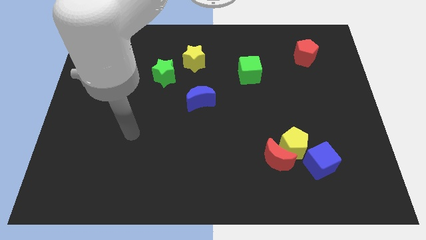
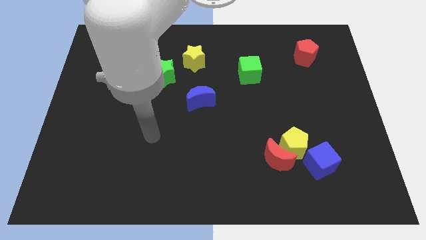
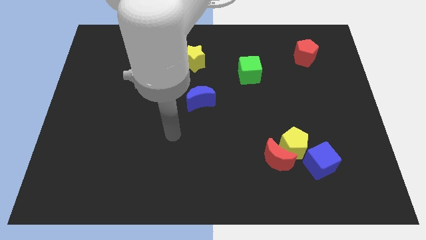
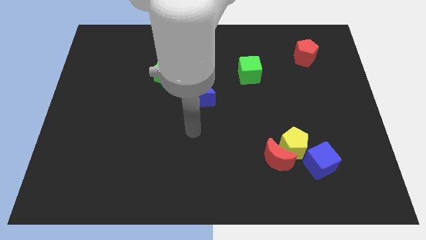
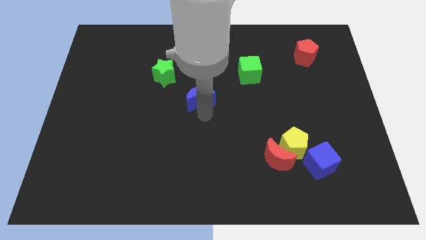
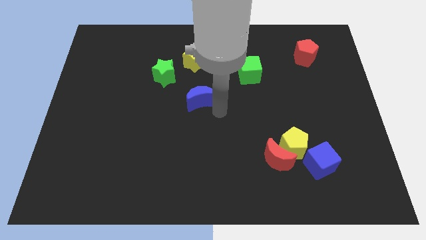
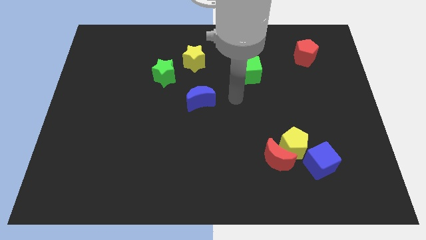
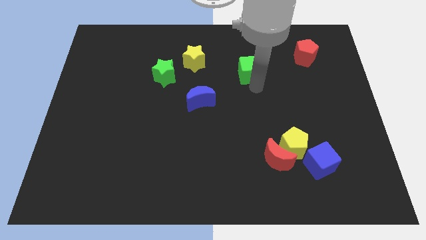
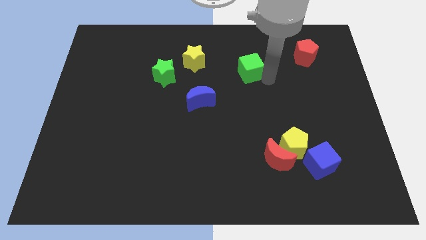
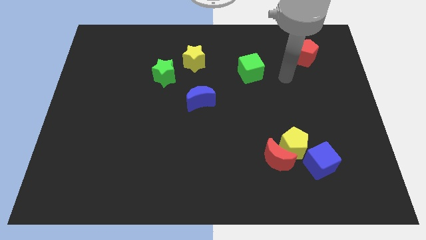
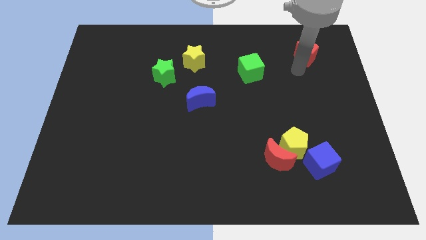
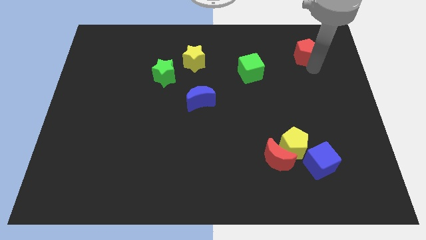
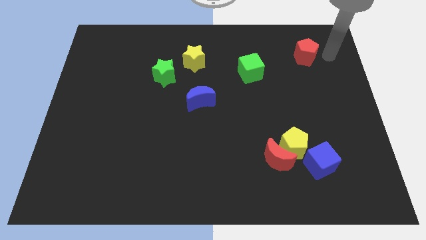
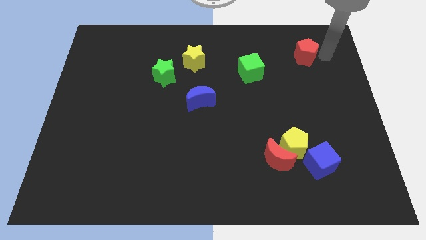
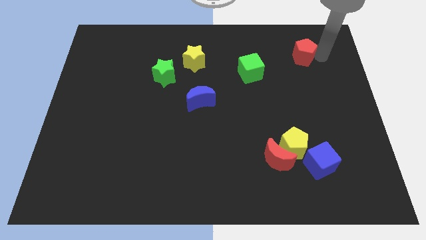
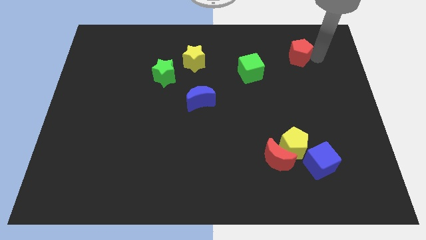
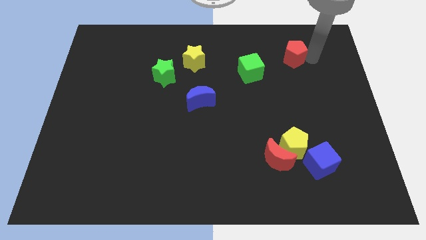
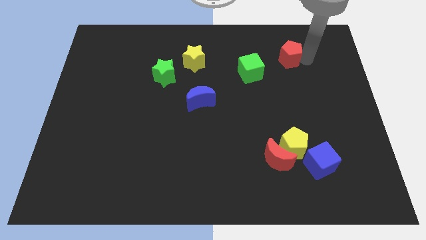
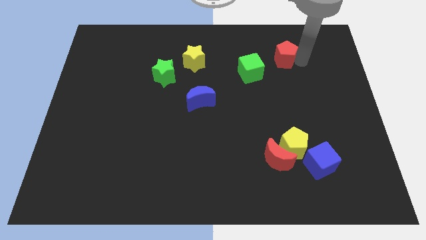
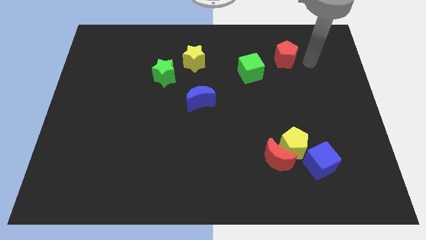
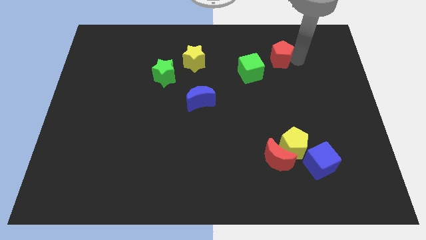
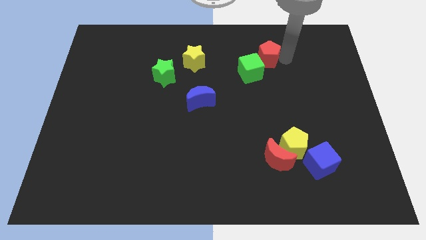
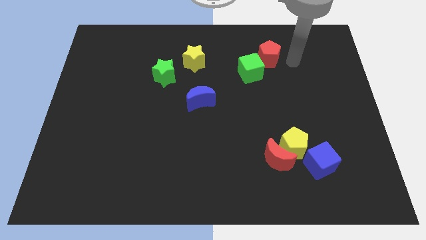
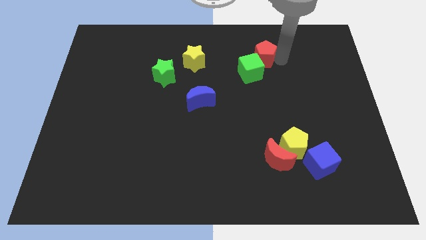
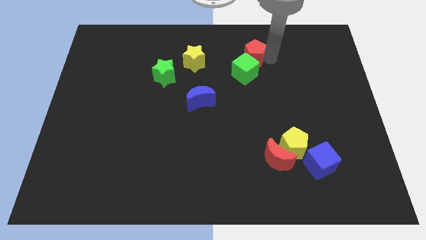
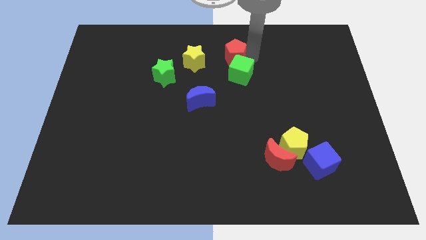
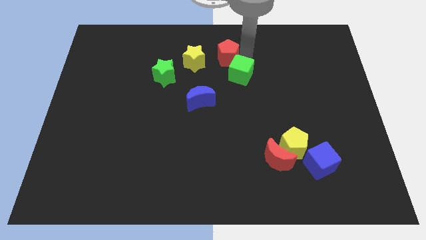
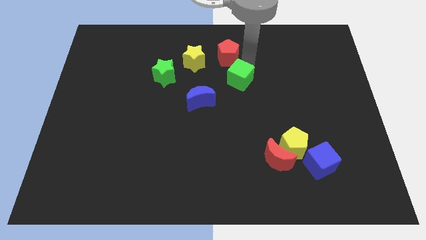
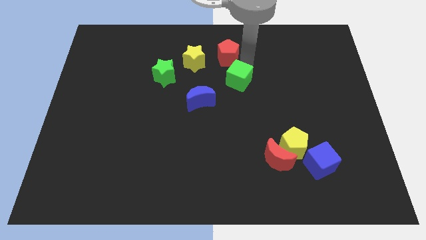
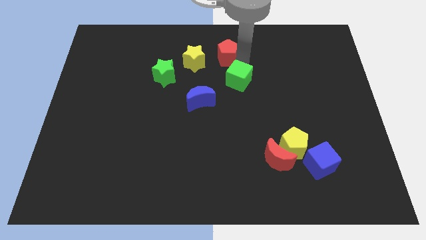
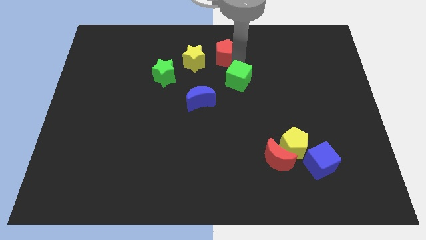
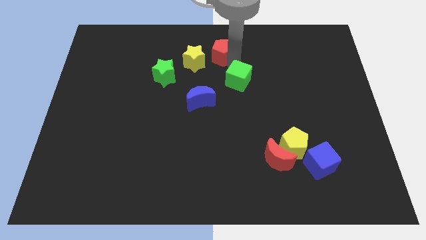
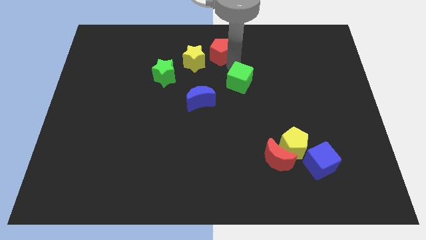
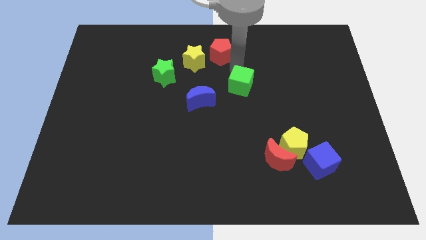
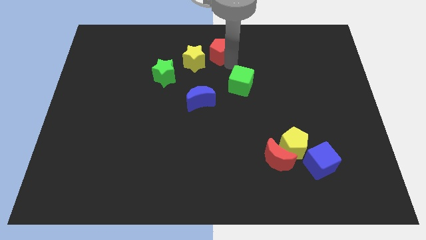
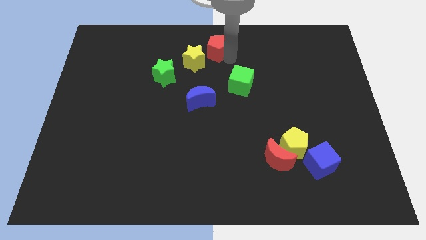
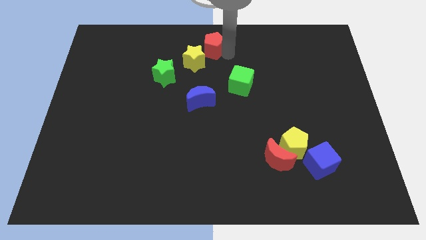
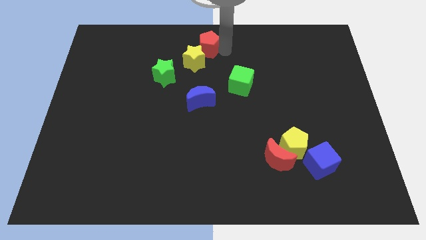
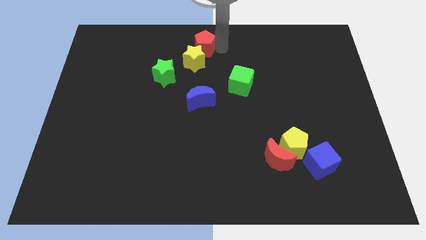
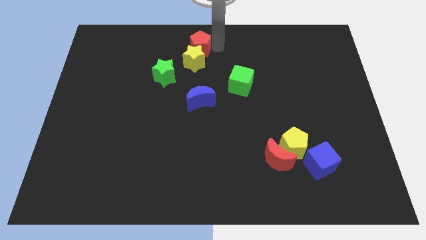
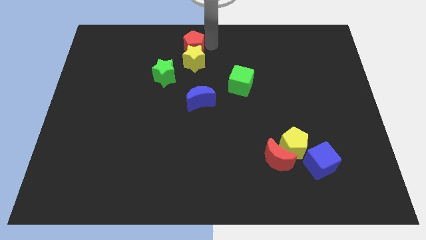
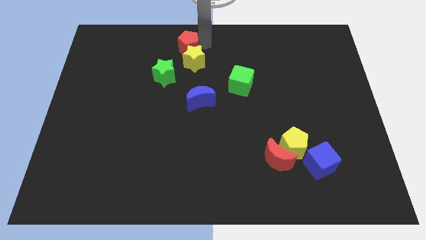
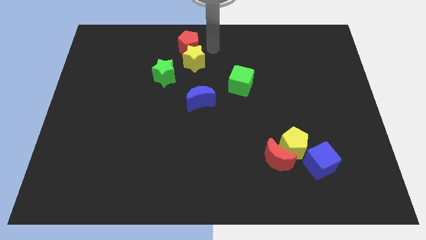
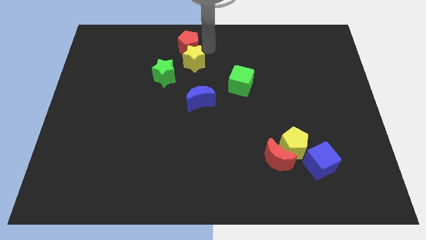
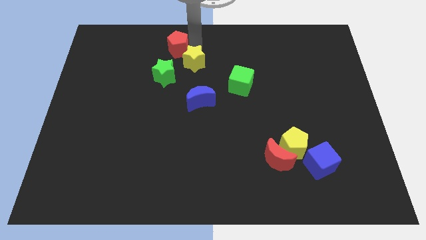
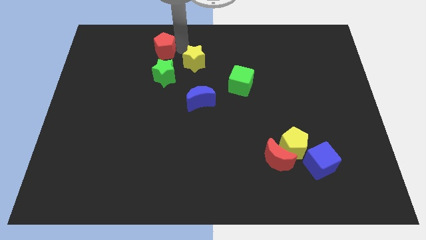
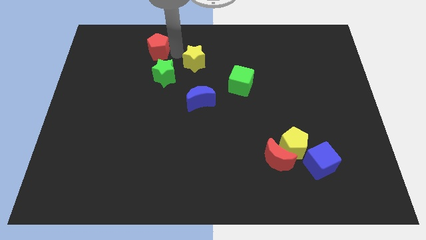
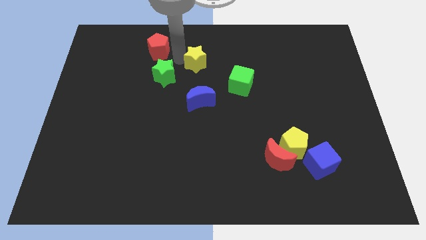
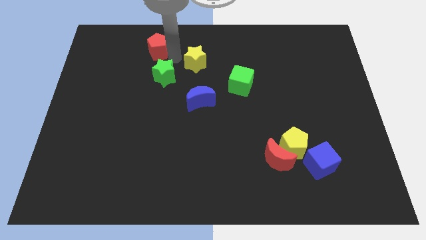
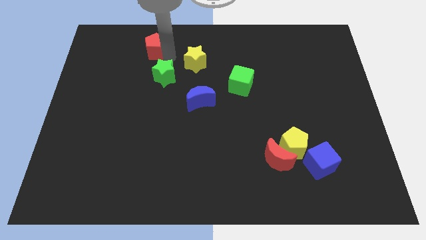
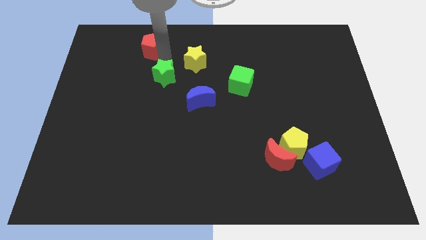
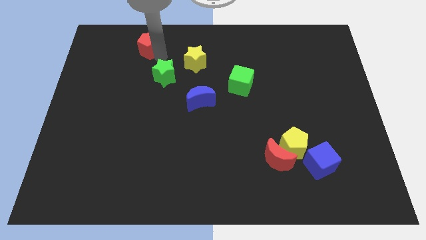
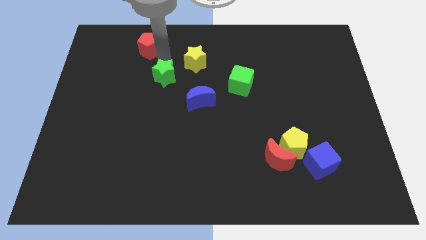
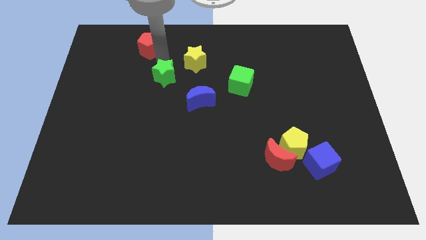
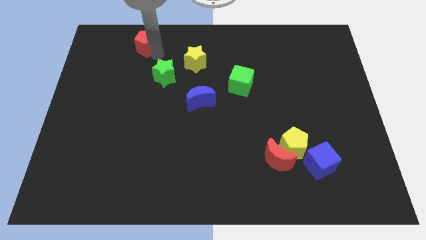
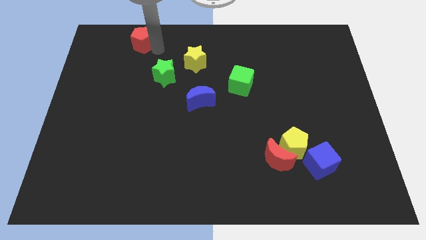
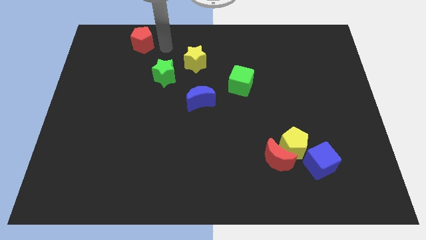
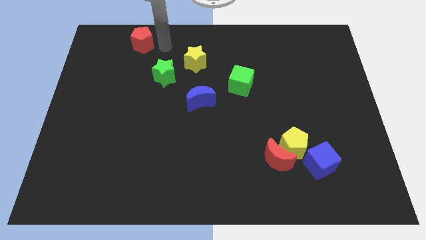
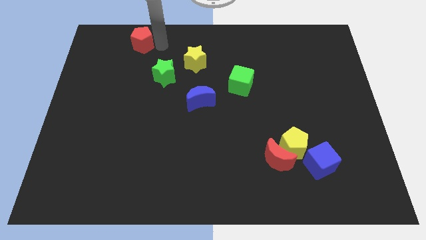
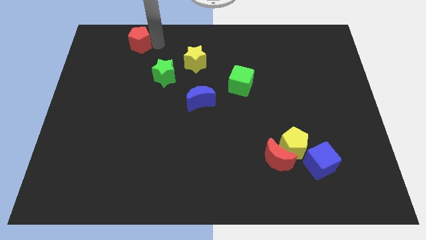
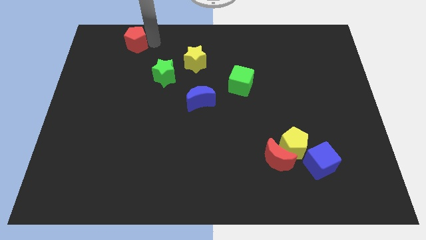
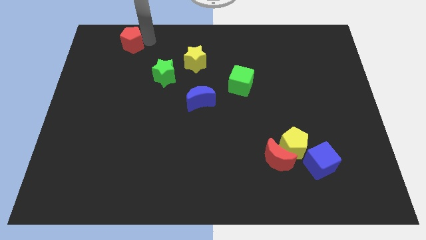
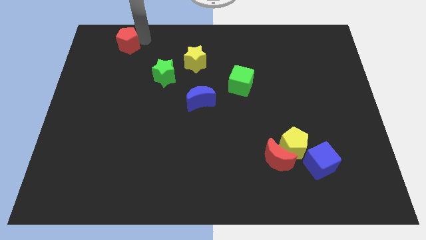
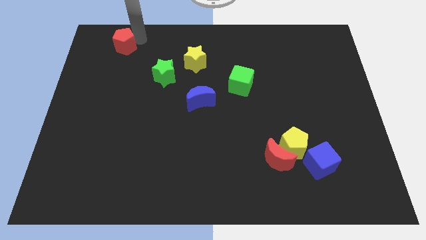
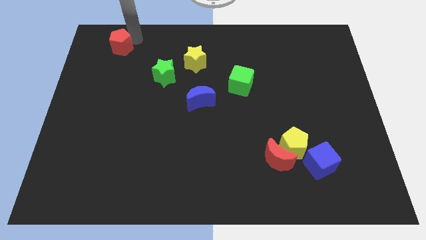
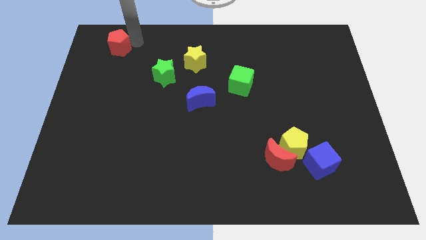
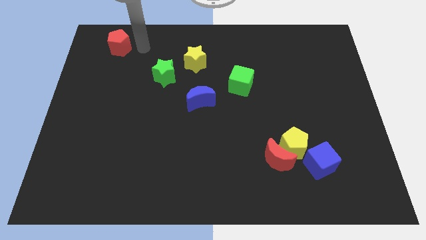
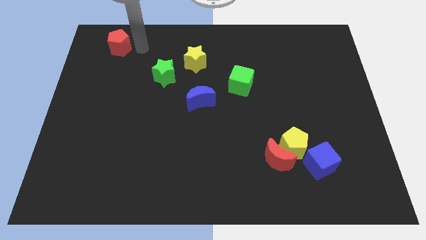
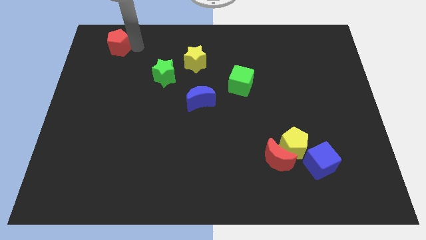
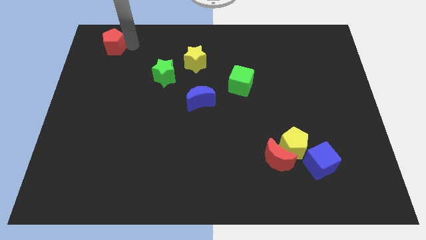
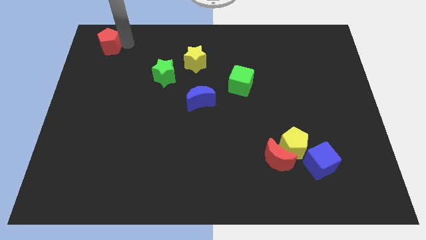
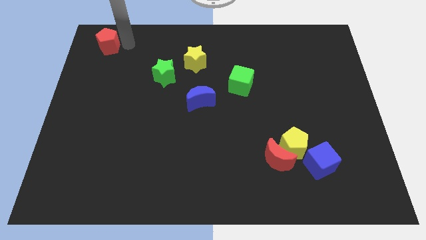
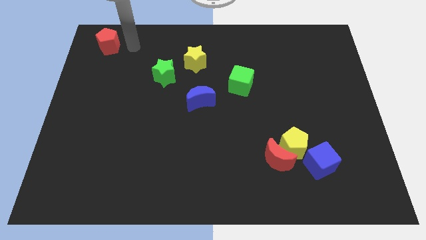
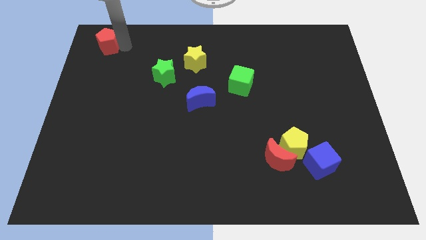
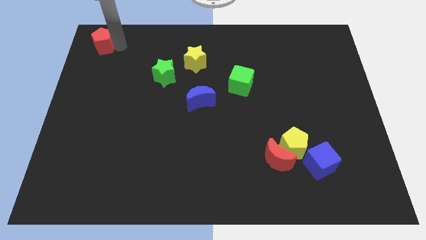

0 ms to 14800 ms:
slide the red pentagon to the top left of the board
